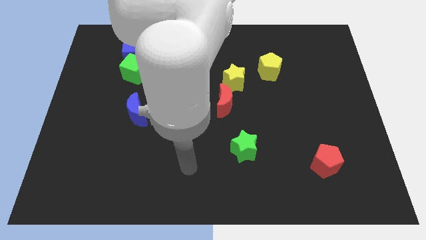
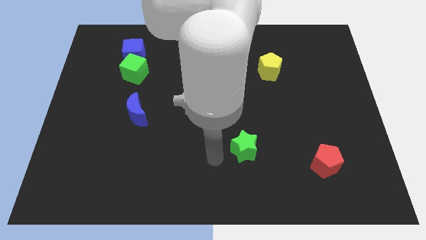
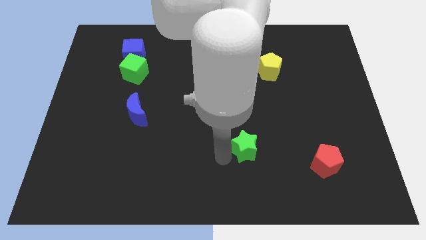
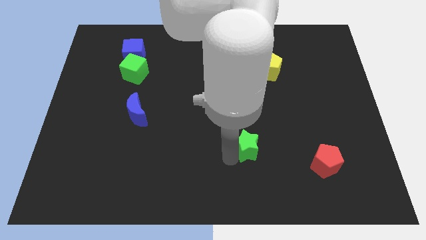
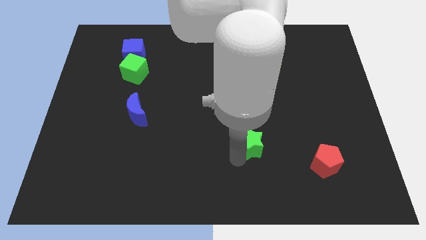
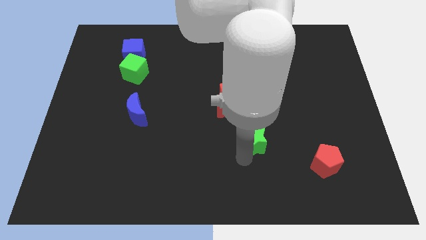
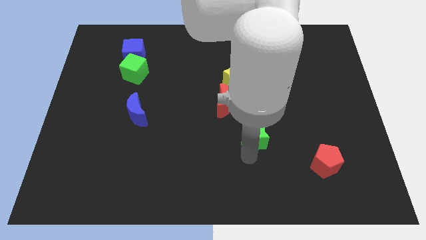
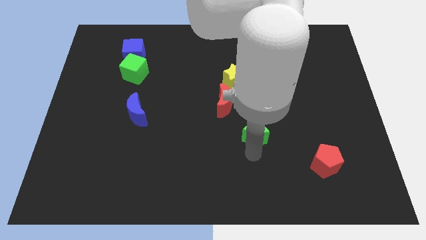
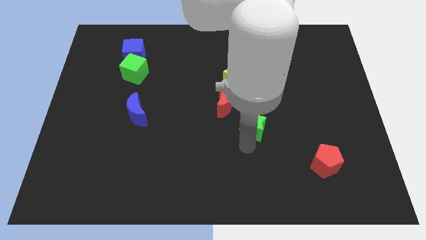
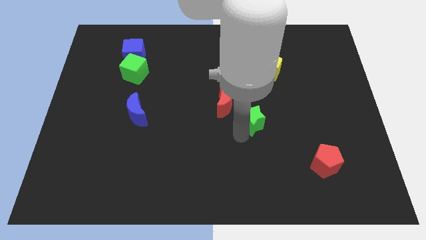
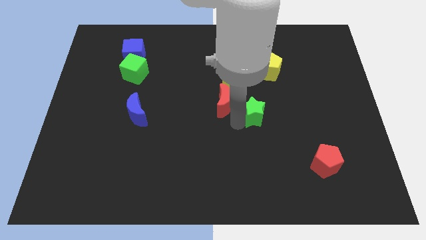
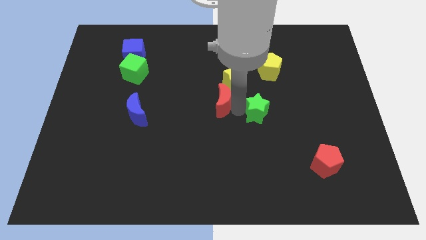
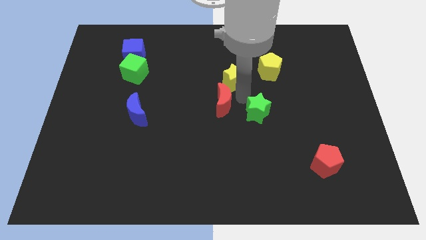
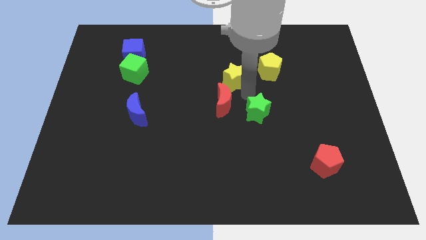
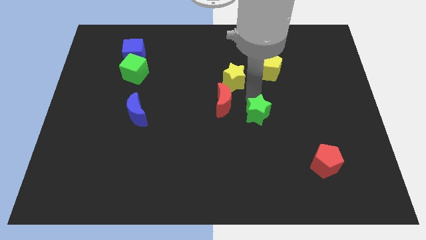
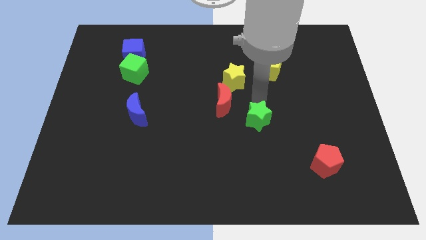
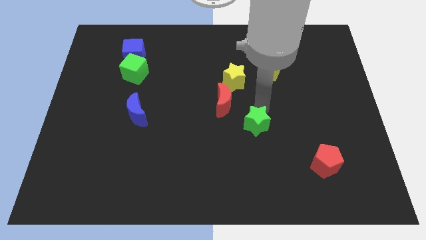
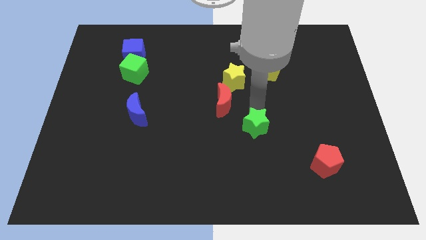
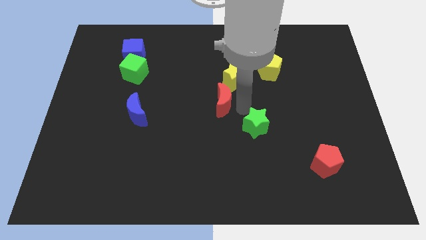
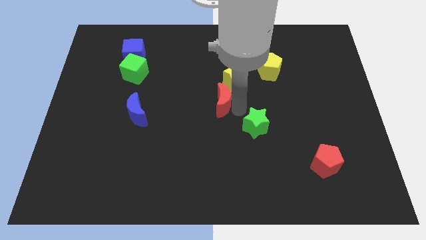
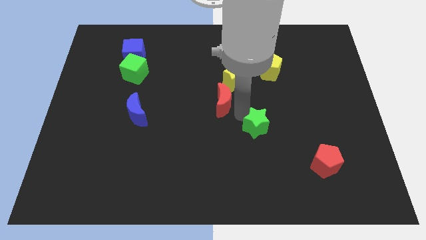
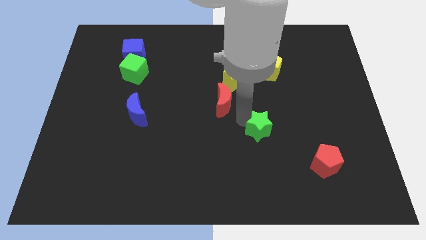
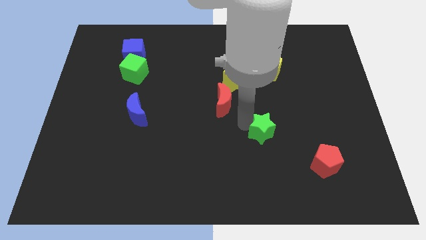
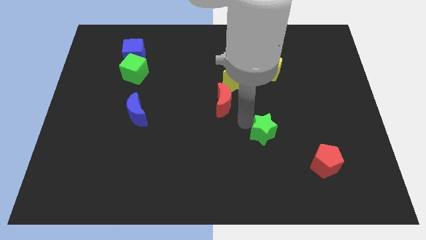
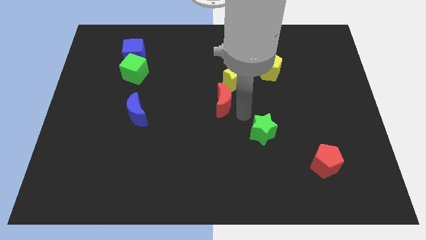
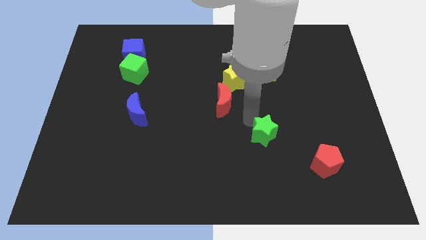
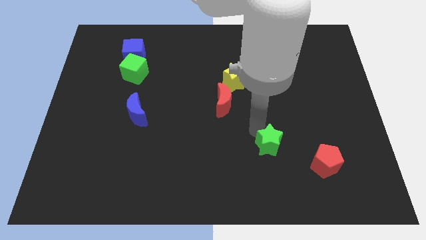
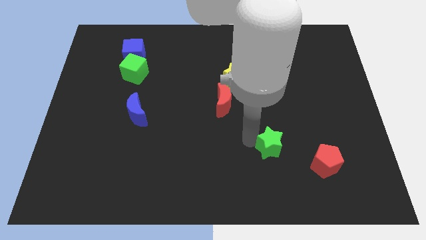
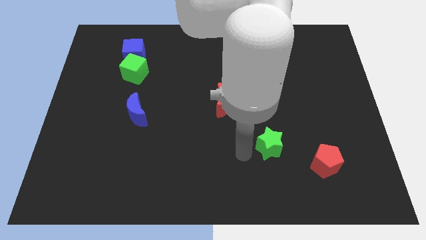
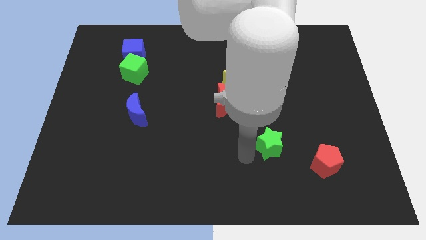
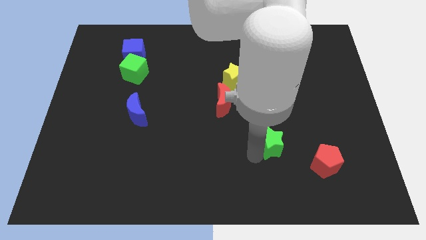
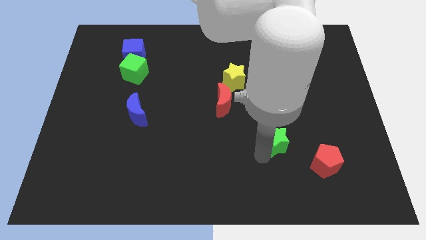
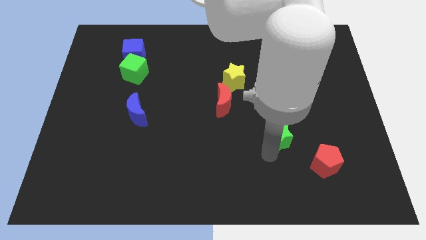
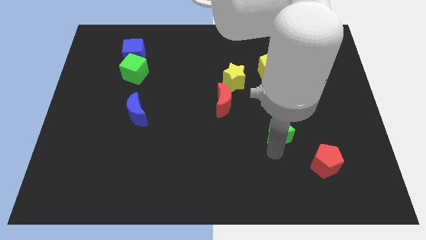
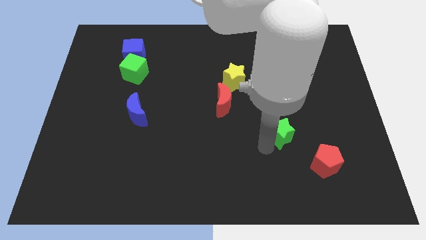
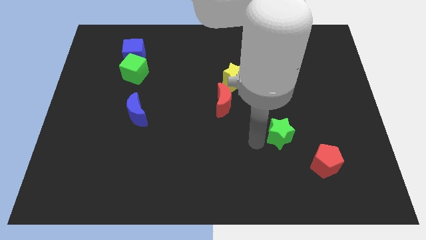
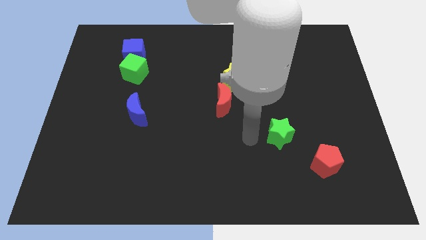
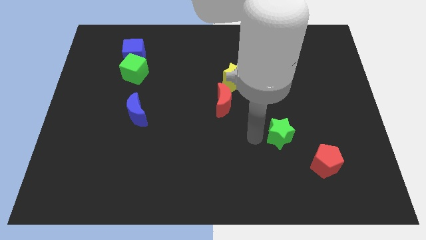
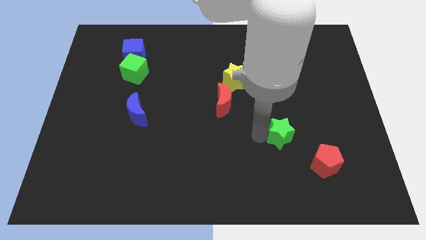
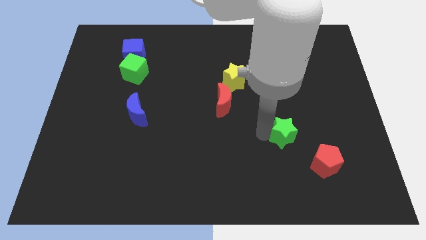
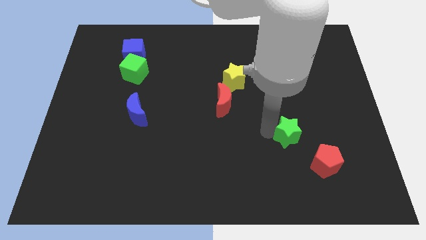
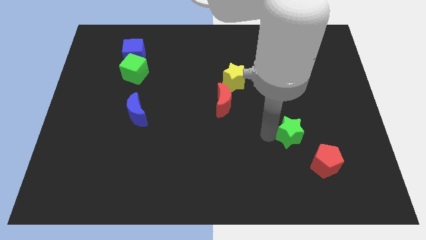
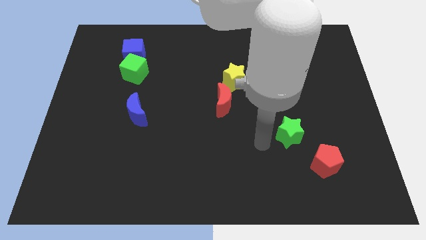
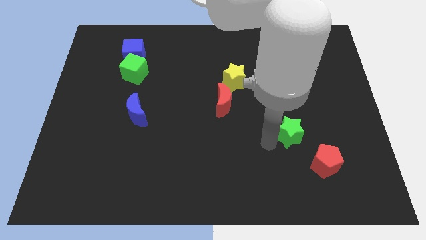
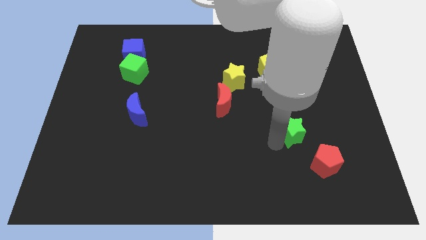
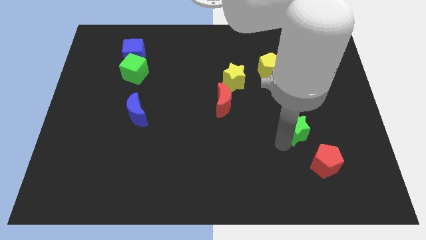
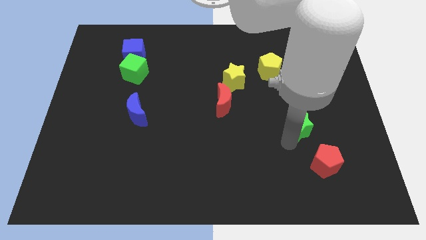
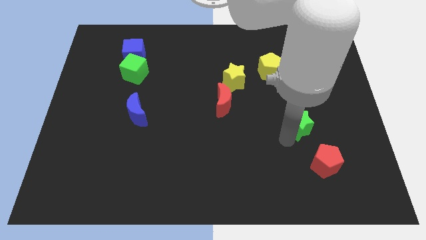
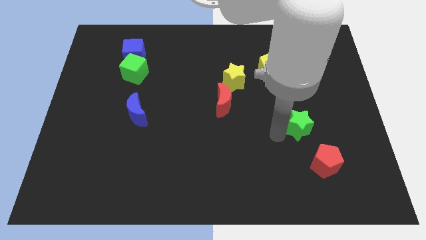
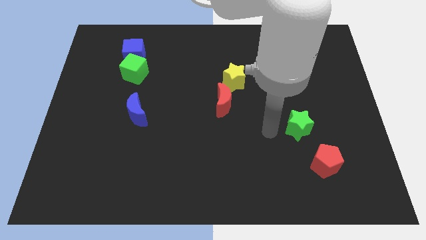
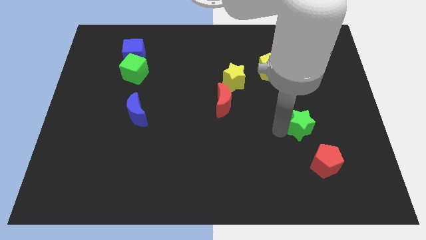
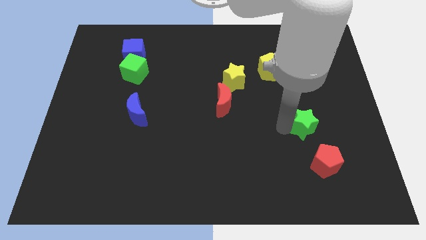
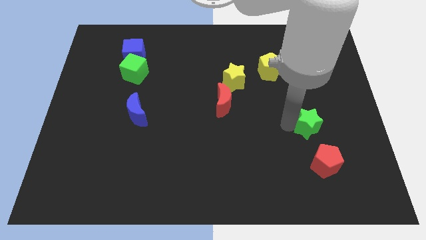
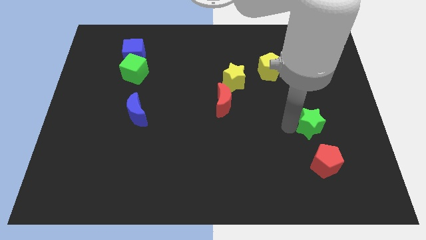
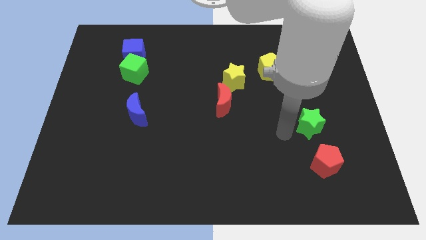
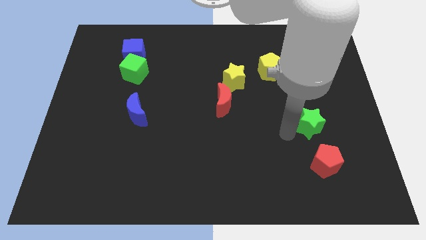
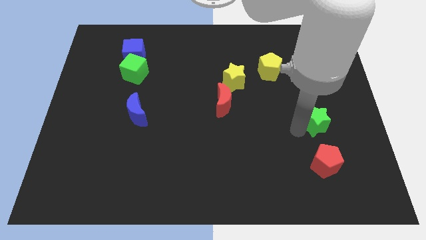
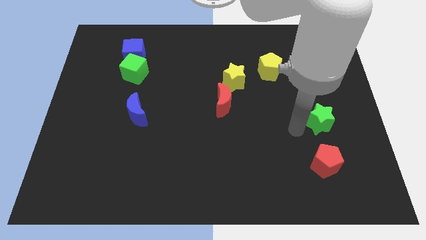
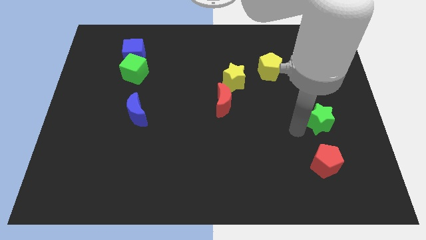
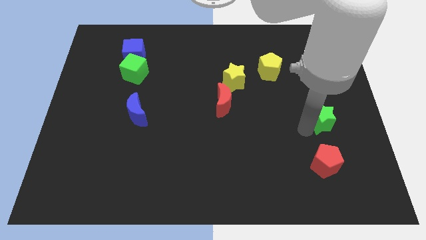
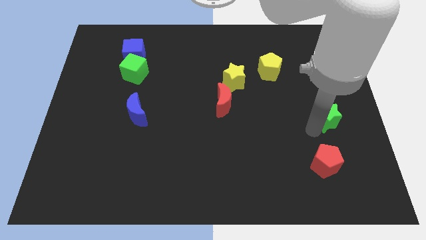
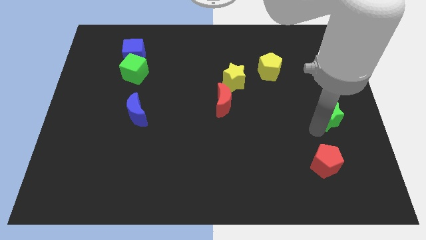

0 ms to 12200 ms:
move the green star to the right side of the board

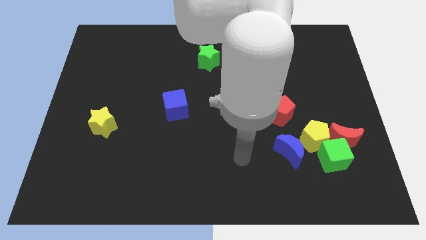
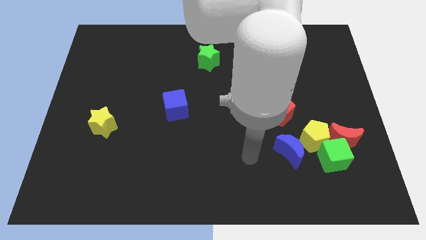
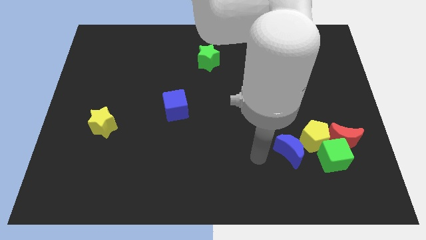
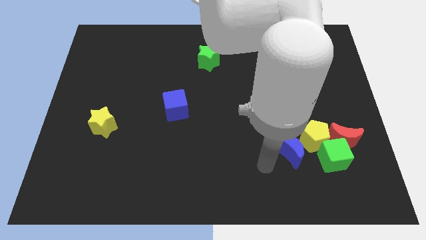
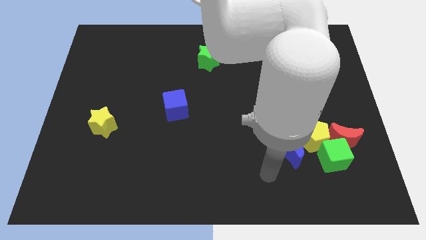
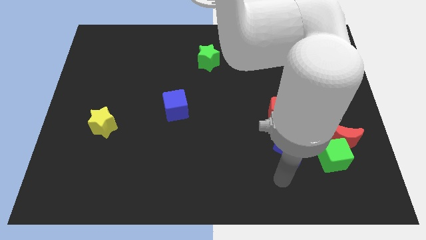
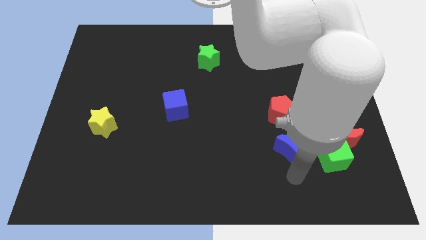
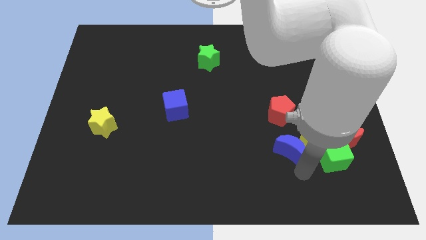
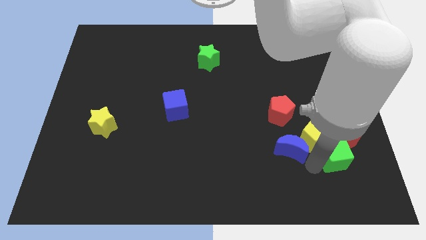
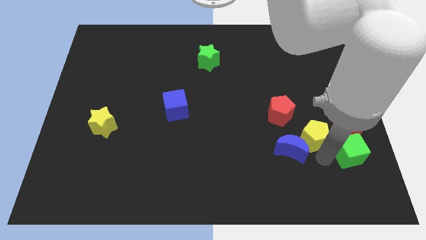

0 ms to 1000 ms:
slide the red moon to the right side
